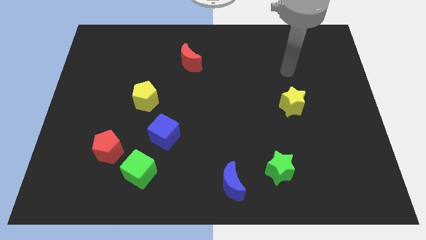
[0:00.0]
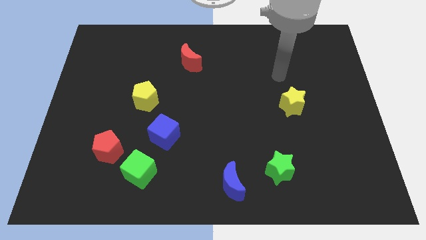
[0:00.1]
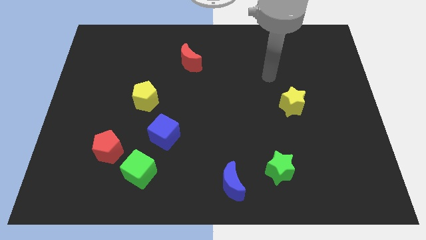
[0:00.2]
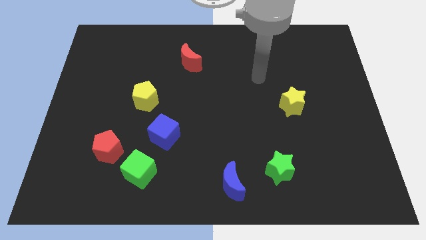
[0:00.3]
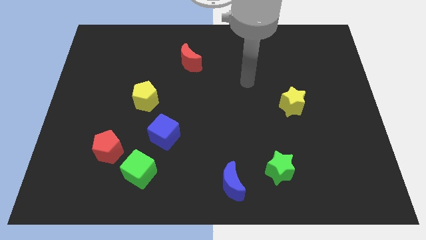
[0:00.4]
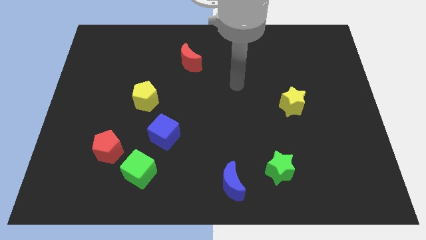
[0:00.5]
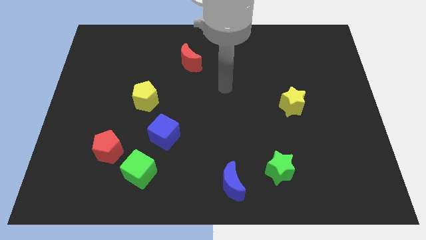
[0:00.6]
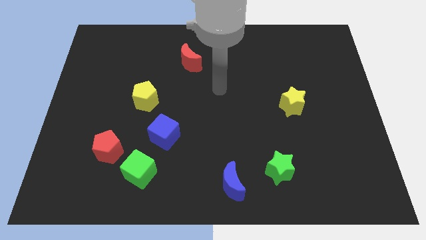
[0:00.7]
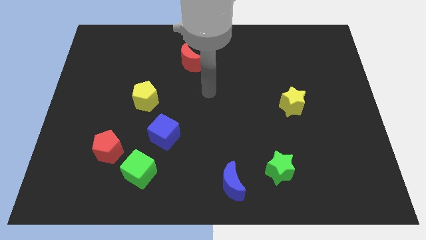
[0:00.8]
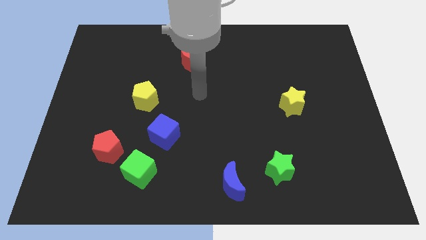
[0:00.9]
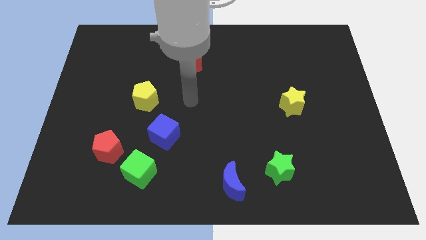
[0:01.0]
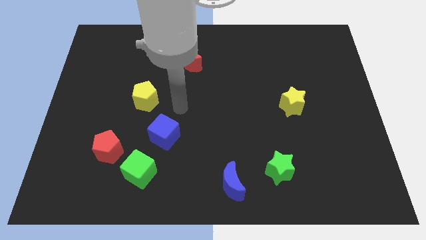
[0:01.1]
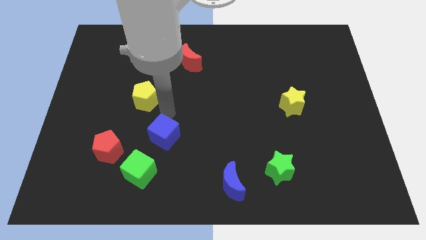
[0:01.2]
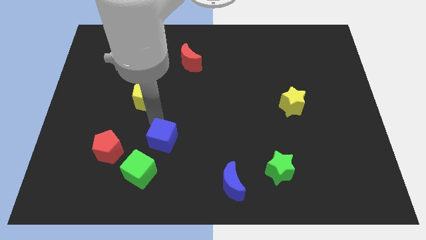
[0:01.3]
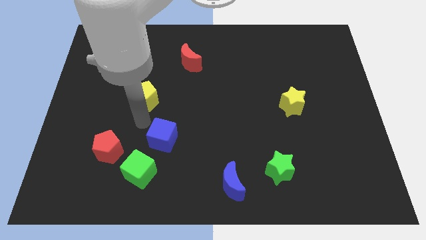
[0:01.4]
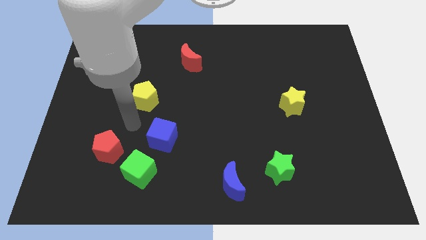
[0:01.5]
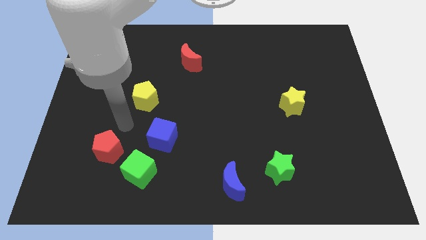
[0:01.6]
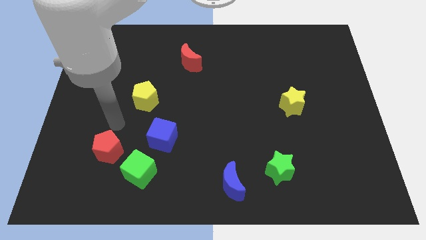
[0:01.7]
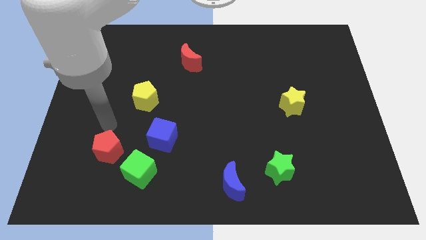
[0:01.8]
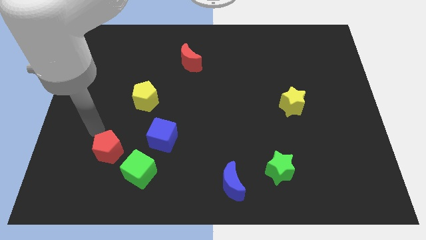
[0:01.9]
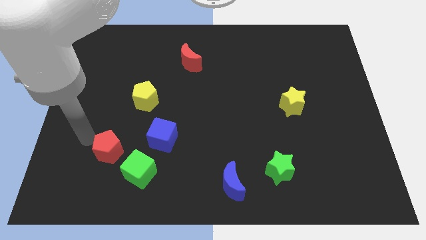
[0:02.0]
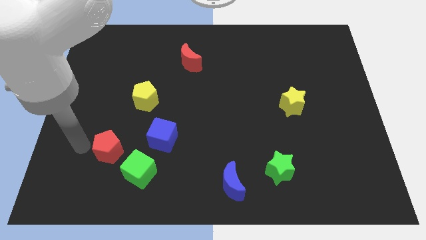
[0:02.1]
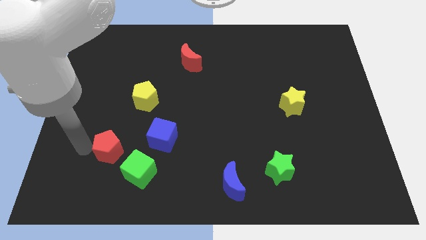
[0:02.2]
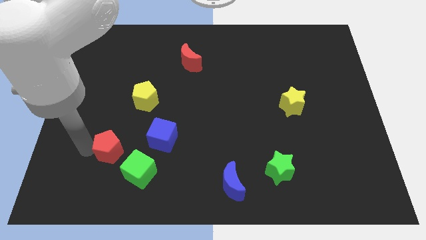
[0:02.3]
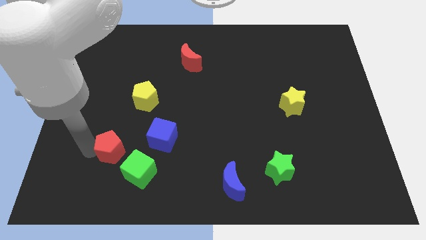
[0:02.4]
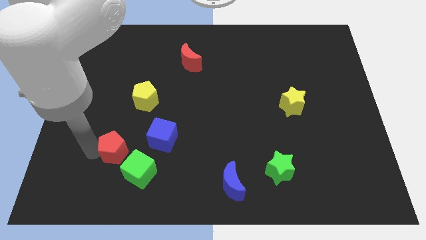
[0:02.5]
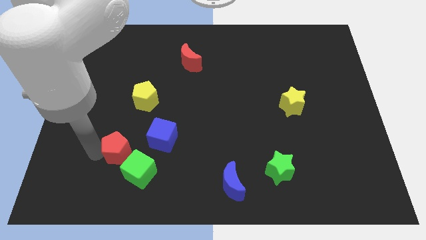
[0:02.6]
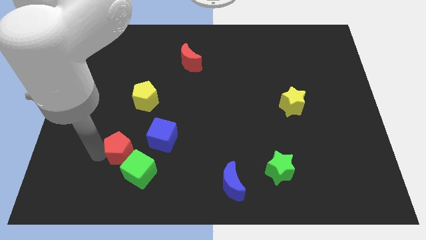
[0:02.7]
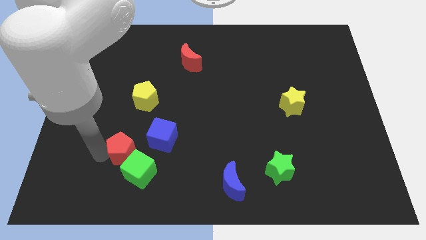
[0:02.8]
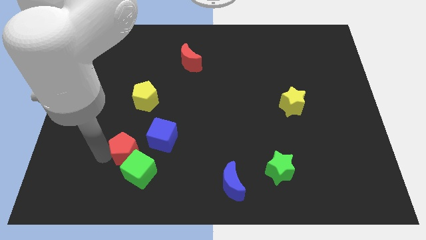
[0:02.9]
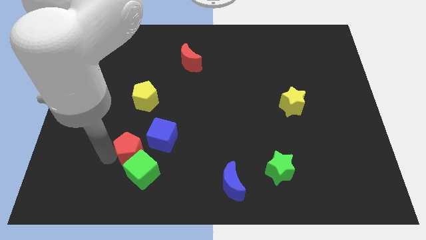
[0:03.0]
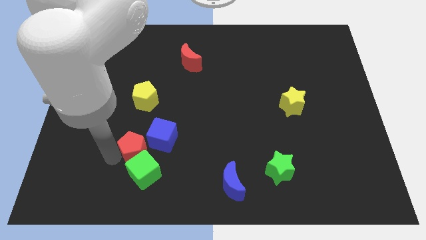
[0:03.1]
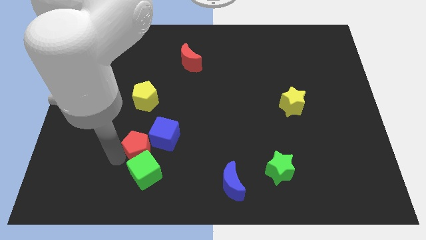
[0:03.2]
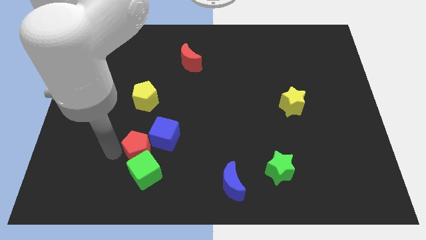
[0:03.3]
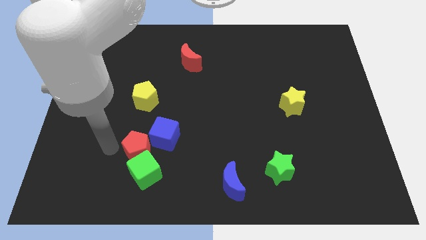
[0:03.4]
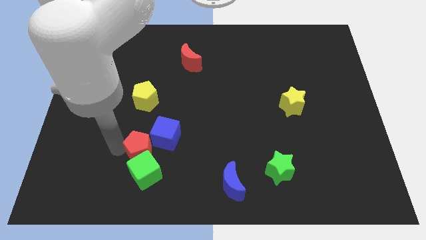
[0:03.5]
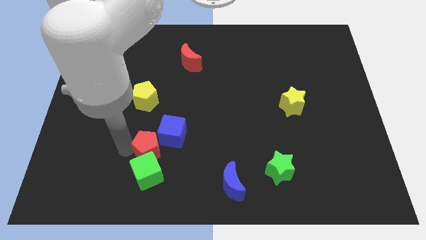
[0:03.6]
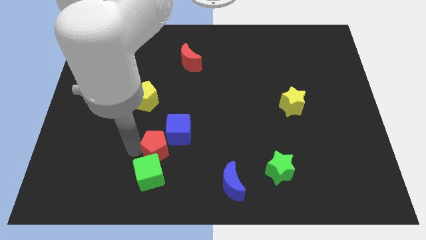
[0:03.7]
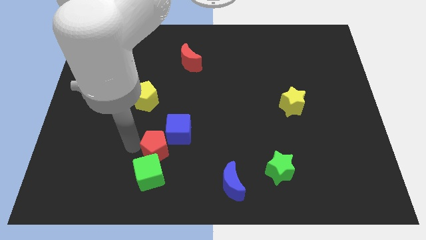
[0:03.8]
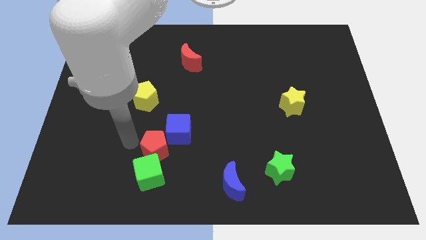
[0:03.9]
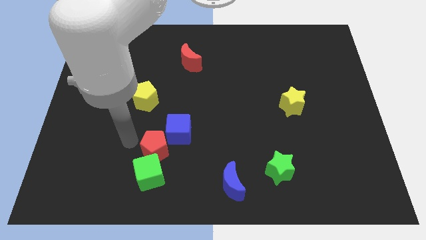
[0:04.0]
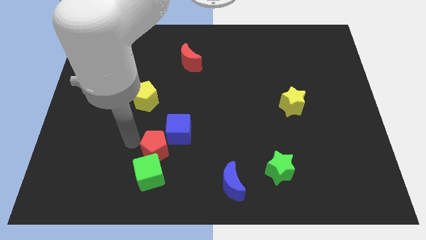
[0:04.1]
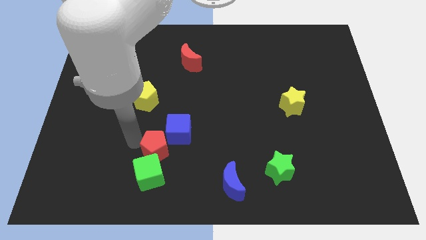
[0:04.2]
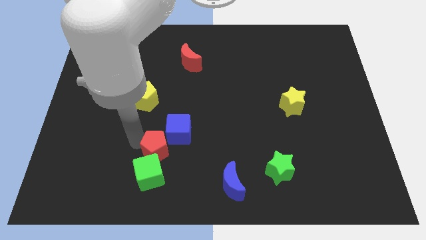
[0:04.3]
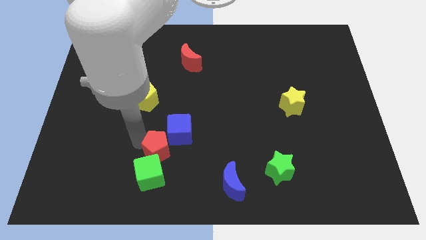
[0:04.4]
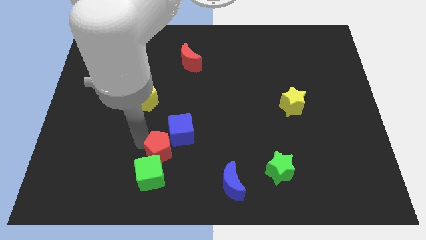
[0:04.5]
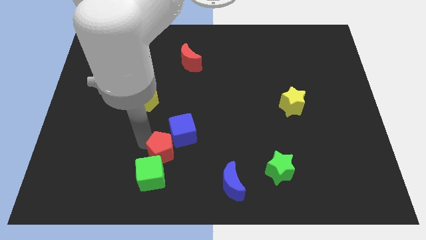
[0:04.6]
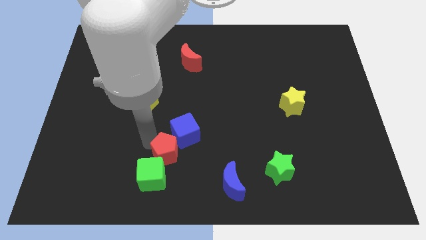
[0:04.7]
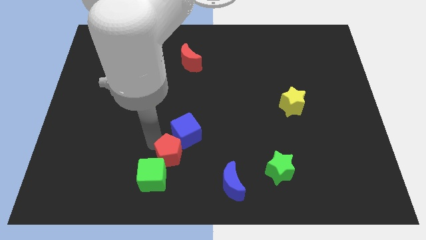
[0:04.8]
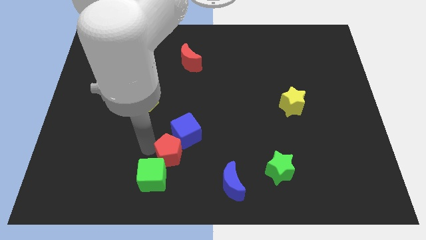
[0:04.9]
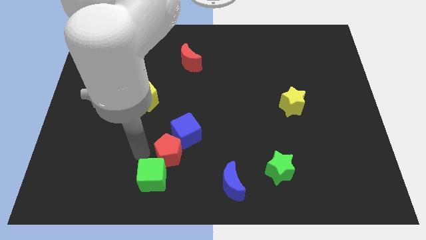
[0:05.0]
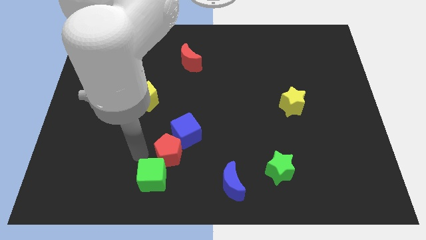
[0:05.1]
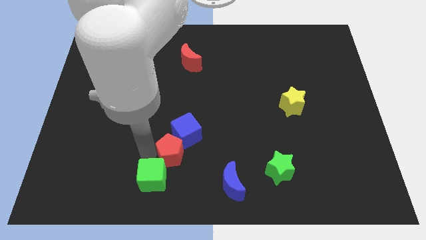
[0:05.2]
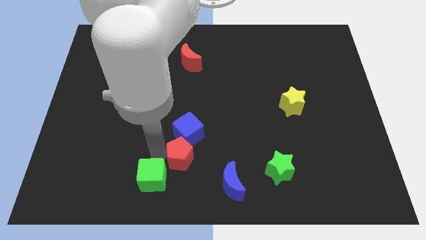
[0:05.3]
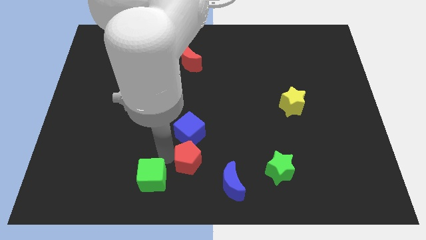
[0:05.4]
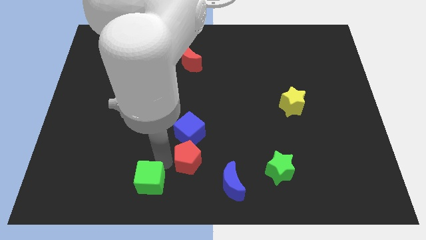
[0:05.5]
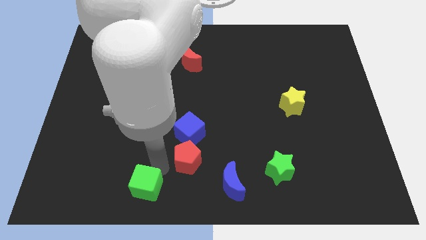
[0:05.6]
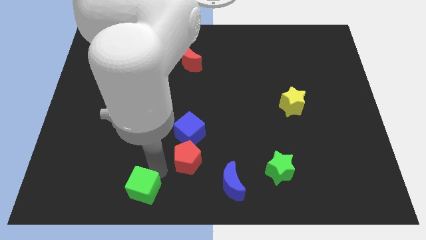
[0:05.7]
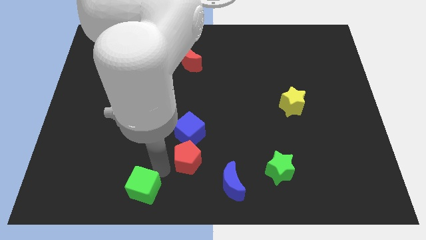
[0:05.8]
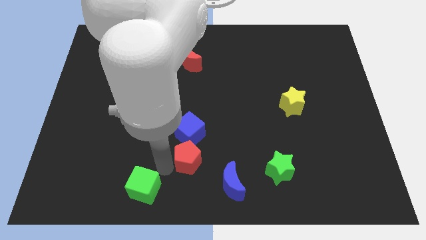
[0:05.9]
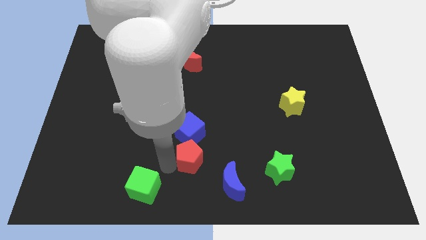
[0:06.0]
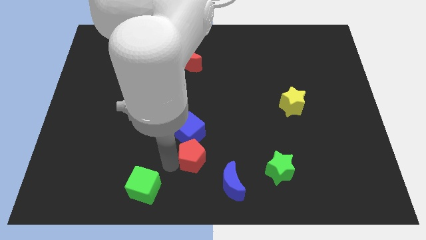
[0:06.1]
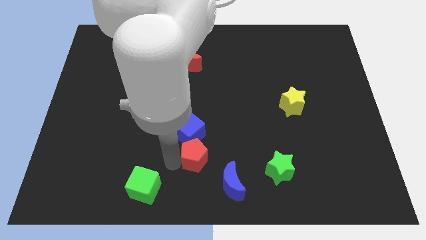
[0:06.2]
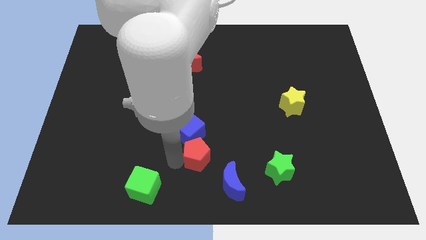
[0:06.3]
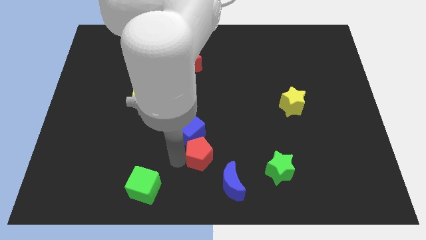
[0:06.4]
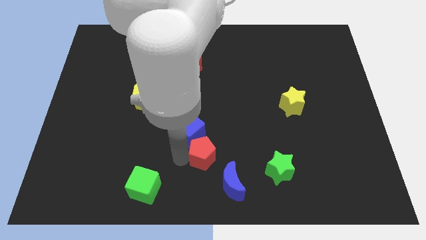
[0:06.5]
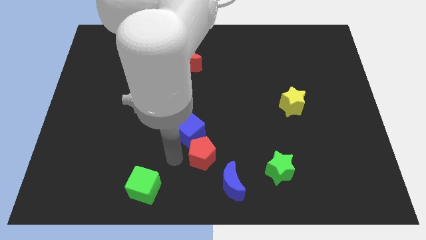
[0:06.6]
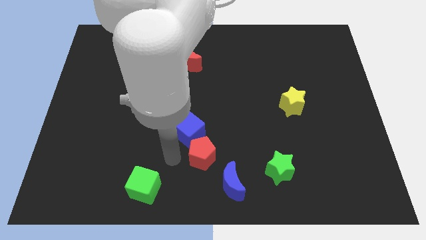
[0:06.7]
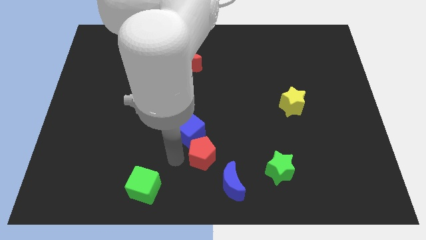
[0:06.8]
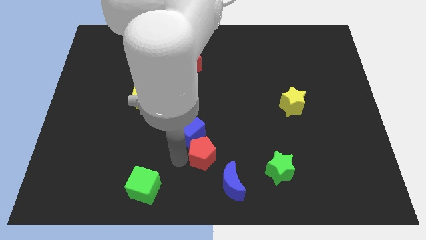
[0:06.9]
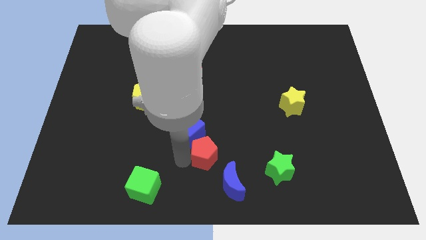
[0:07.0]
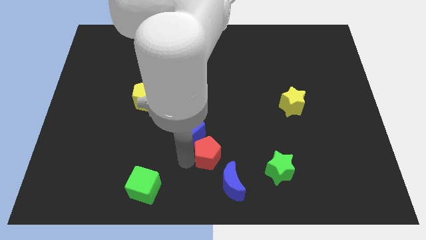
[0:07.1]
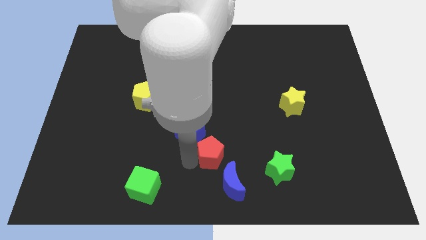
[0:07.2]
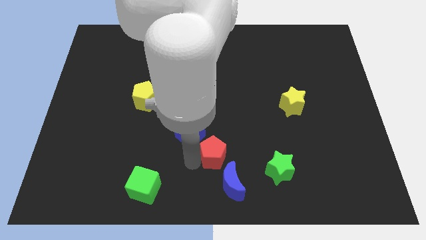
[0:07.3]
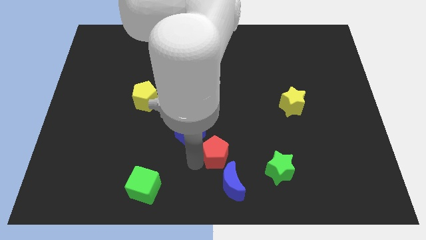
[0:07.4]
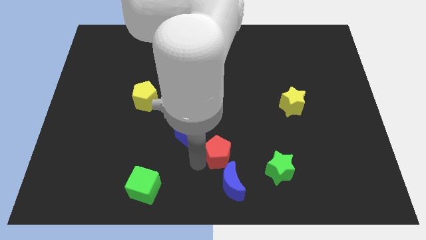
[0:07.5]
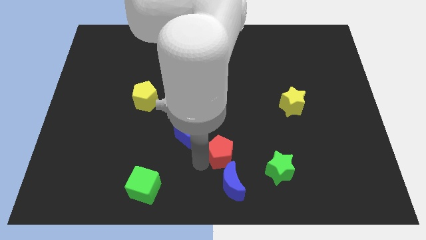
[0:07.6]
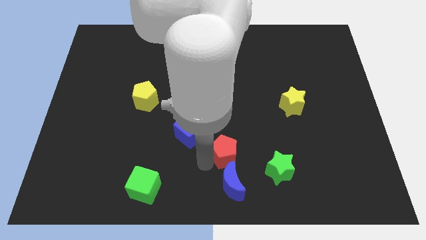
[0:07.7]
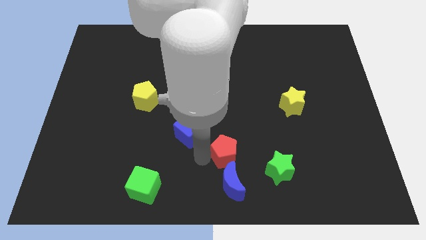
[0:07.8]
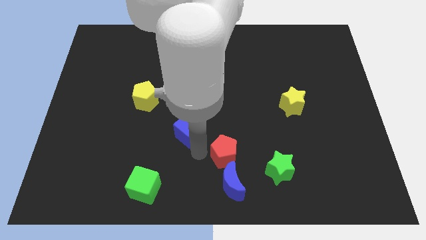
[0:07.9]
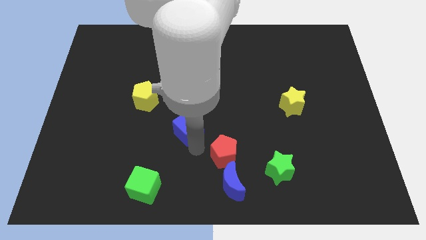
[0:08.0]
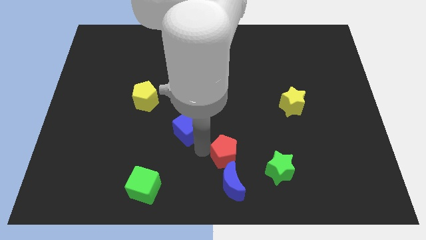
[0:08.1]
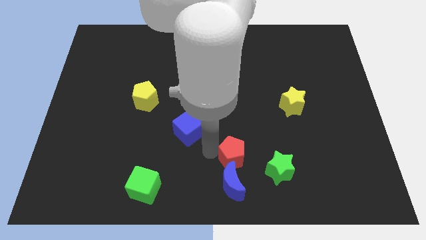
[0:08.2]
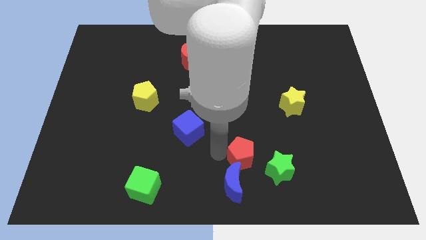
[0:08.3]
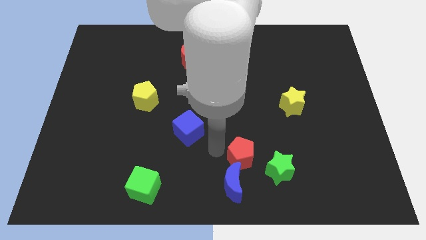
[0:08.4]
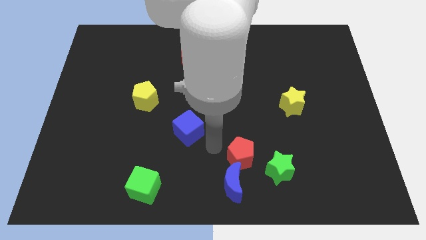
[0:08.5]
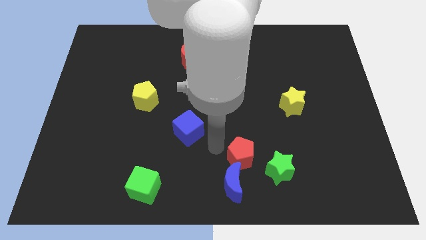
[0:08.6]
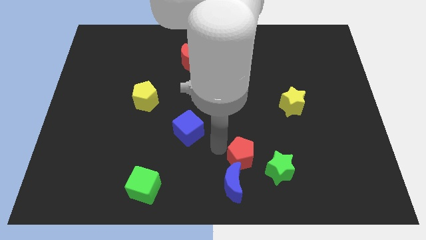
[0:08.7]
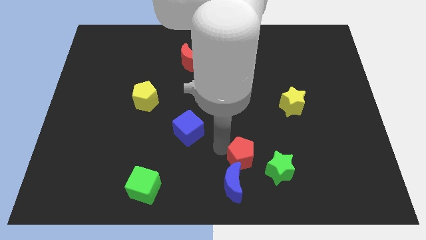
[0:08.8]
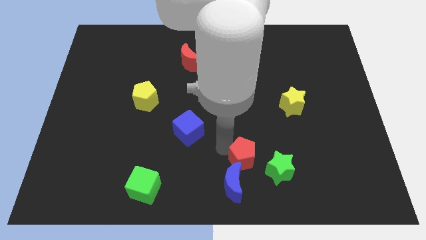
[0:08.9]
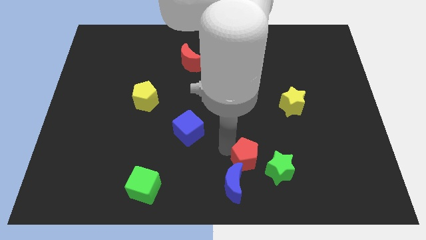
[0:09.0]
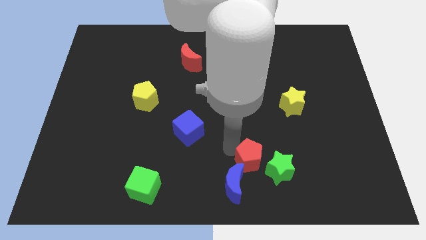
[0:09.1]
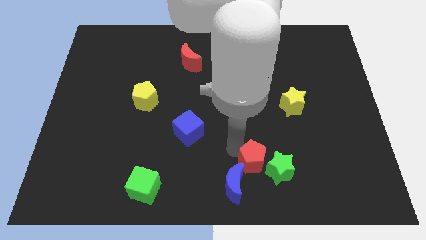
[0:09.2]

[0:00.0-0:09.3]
push the red pentagon to the green star
